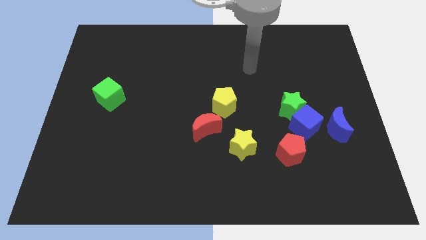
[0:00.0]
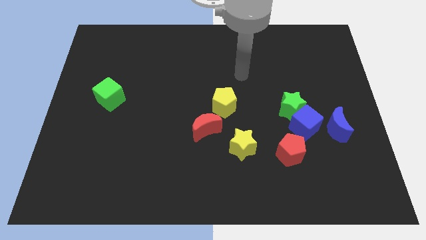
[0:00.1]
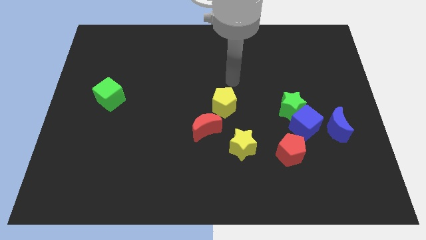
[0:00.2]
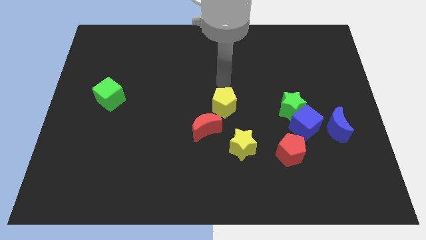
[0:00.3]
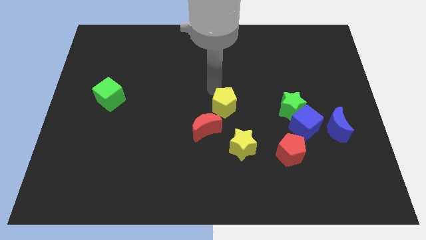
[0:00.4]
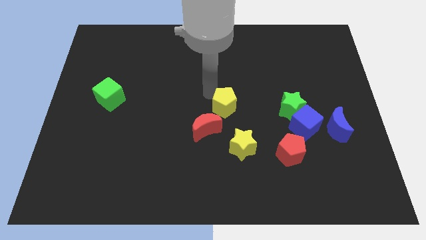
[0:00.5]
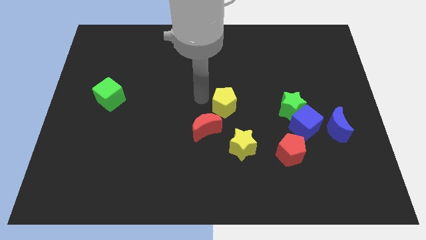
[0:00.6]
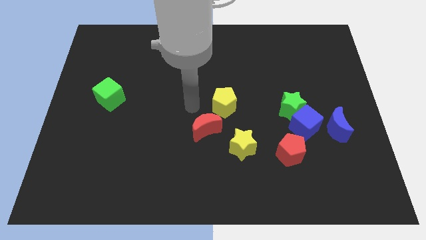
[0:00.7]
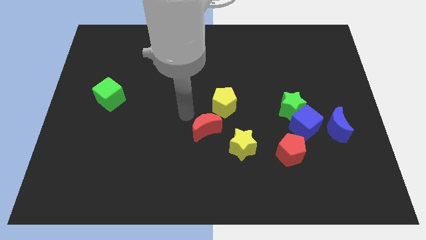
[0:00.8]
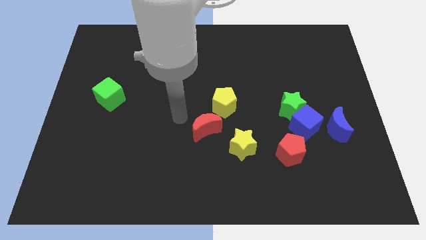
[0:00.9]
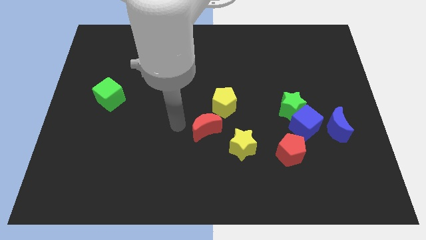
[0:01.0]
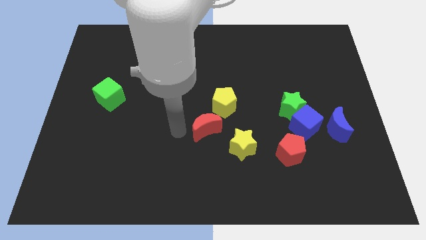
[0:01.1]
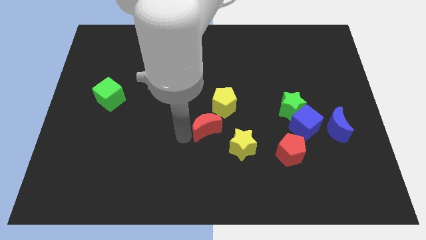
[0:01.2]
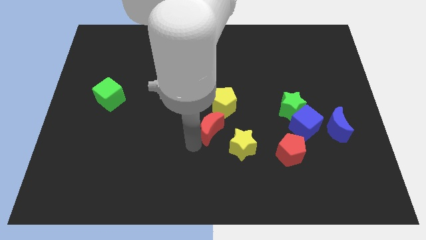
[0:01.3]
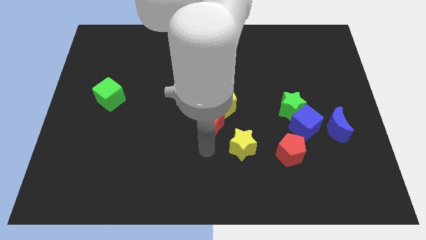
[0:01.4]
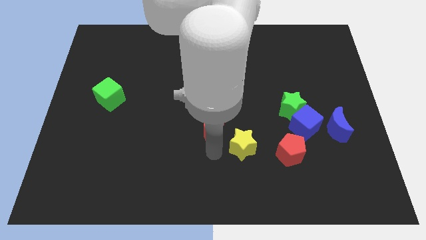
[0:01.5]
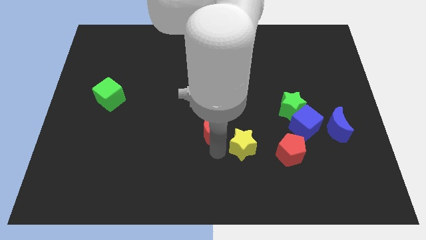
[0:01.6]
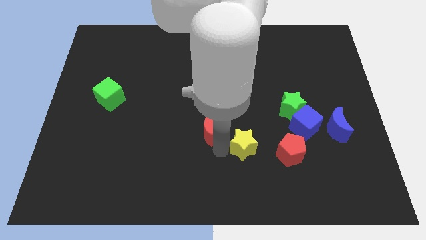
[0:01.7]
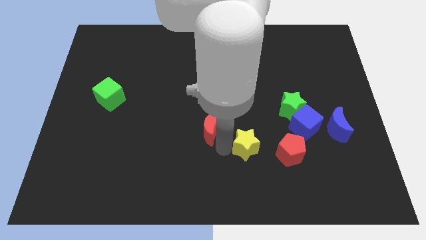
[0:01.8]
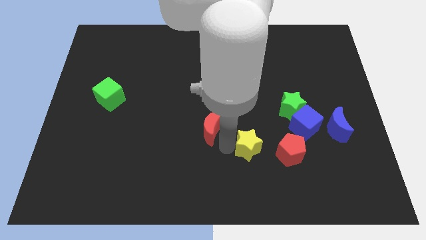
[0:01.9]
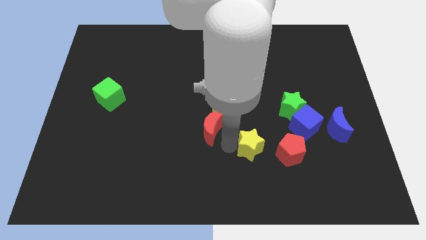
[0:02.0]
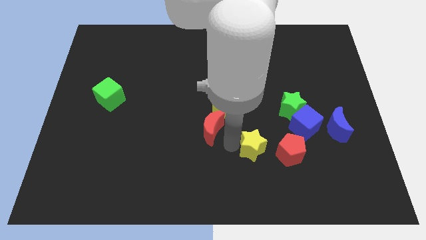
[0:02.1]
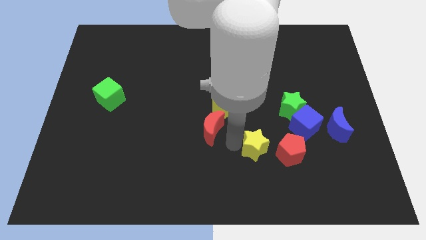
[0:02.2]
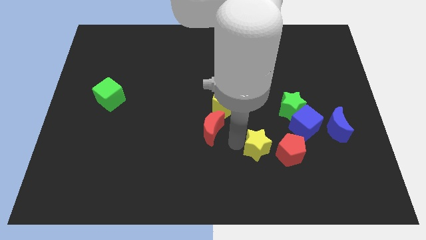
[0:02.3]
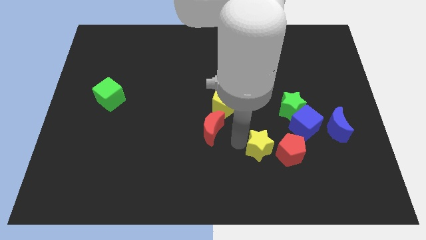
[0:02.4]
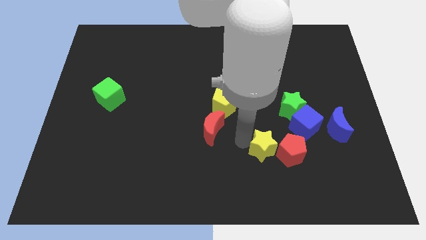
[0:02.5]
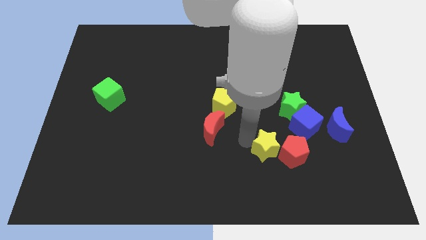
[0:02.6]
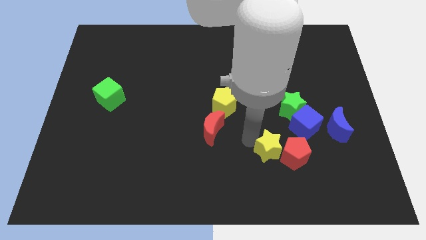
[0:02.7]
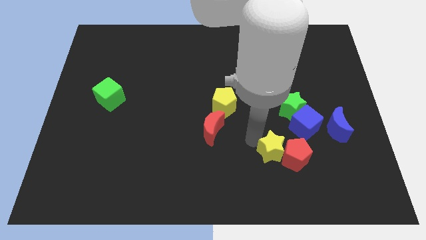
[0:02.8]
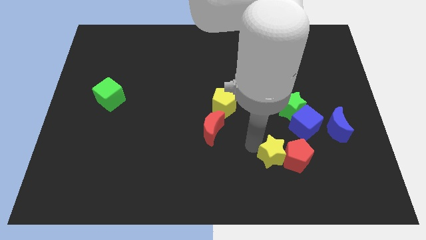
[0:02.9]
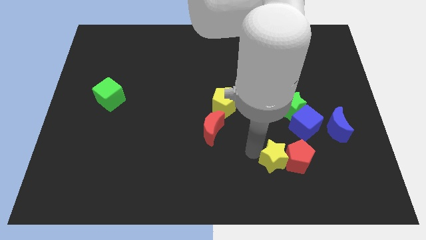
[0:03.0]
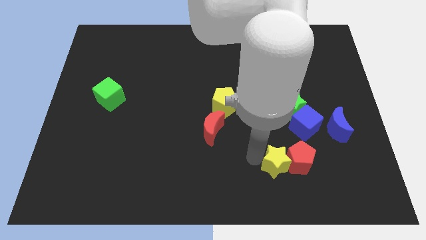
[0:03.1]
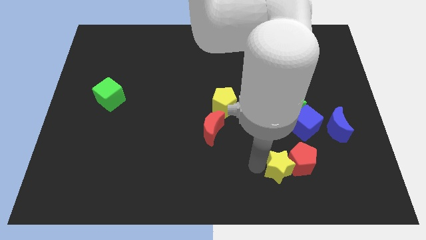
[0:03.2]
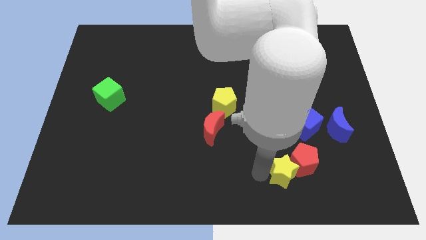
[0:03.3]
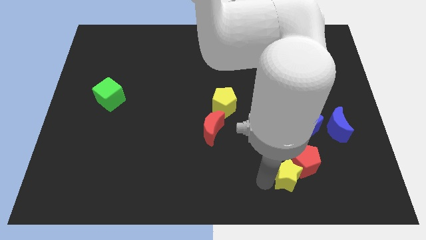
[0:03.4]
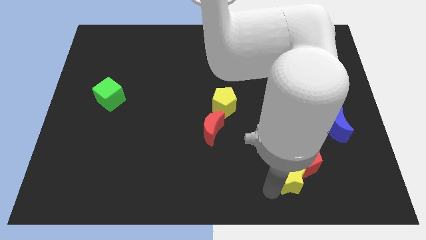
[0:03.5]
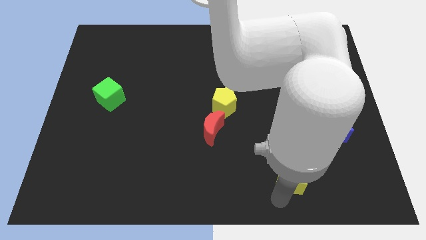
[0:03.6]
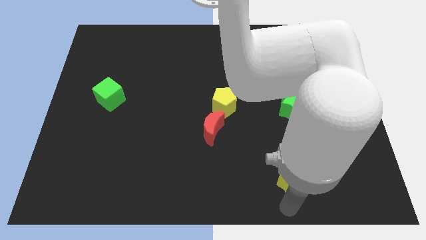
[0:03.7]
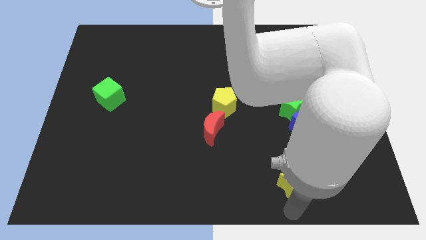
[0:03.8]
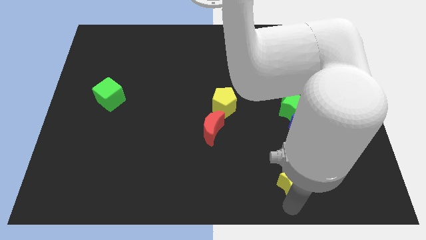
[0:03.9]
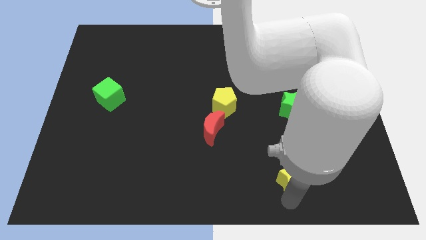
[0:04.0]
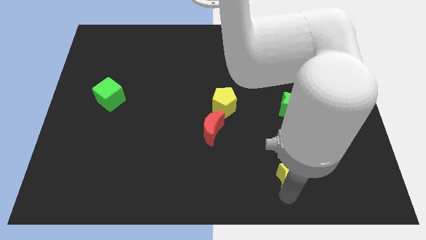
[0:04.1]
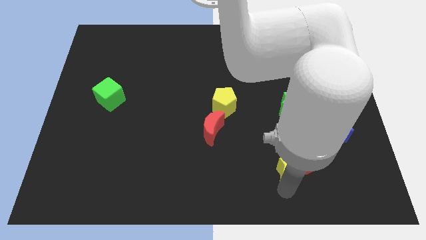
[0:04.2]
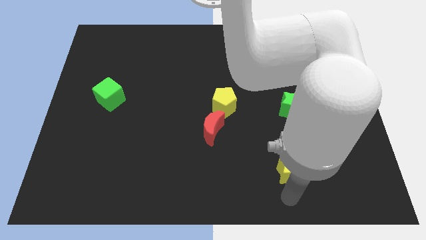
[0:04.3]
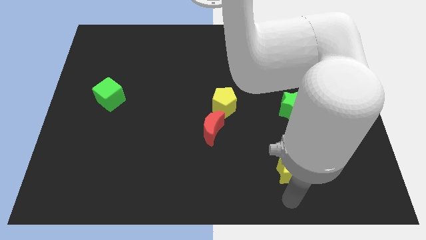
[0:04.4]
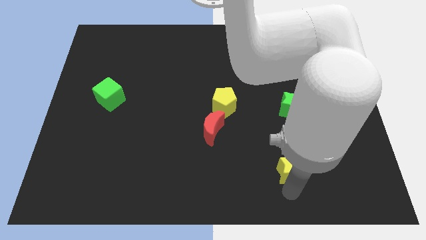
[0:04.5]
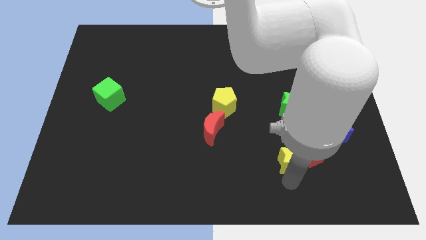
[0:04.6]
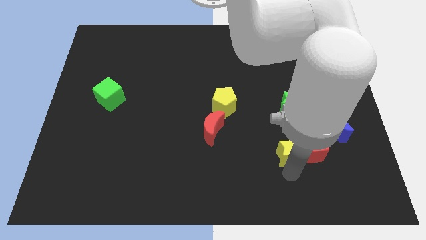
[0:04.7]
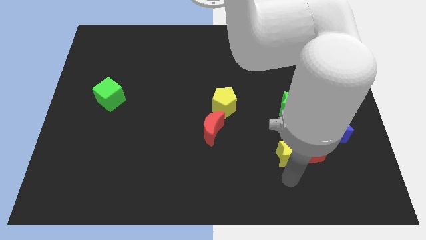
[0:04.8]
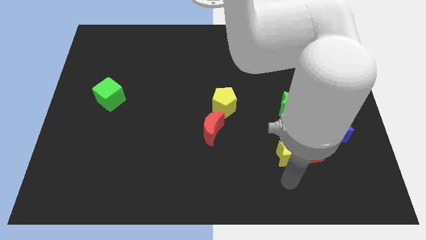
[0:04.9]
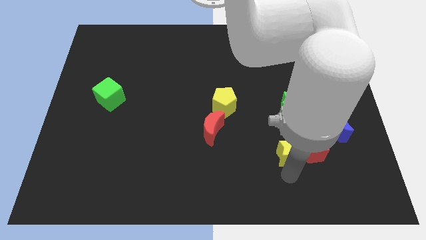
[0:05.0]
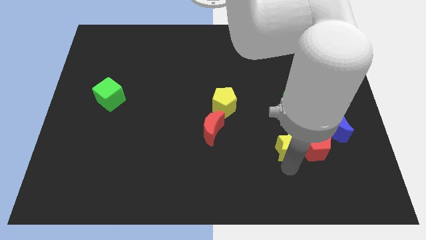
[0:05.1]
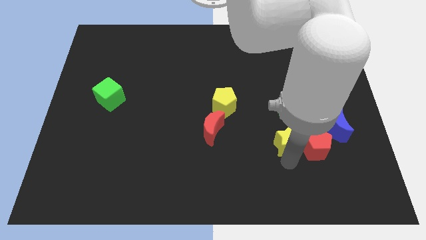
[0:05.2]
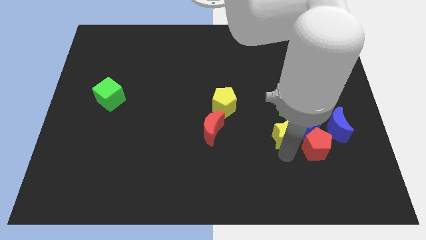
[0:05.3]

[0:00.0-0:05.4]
push the yellow star next to the blue cube

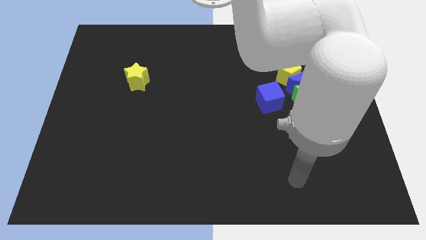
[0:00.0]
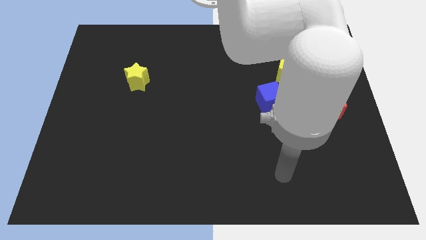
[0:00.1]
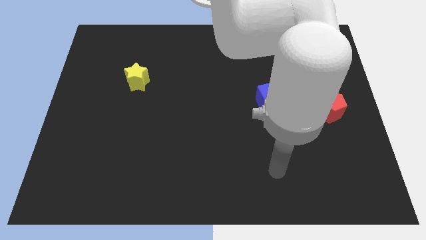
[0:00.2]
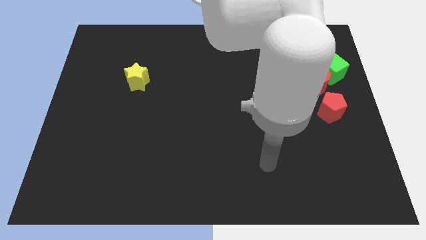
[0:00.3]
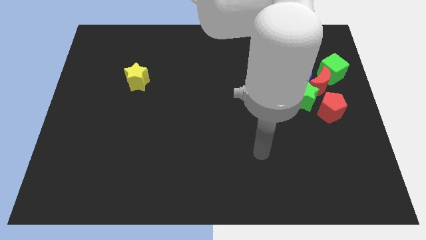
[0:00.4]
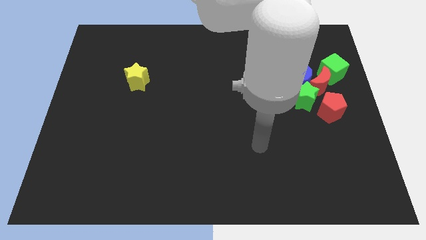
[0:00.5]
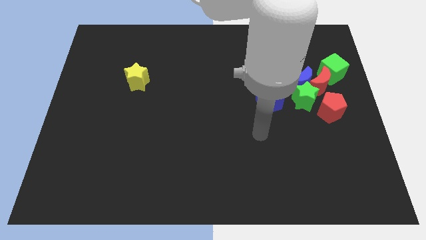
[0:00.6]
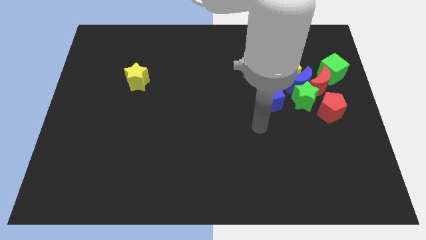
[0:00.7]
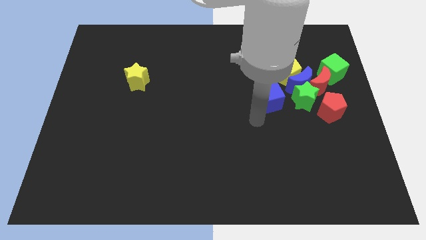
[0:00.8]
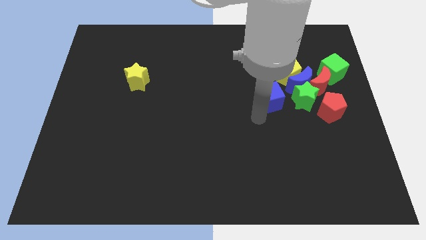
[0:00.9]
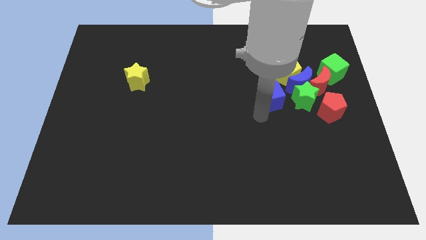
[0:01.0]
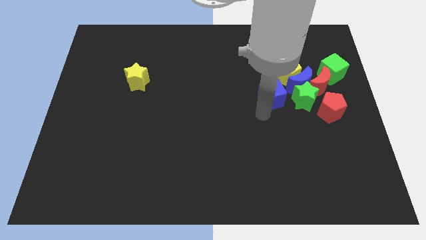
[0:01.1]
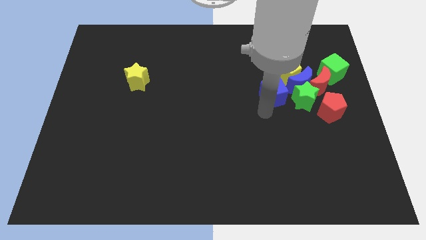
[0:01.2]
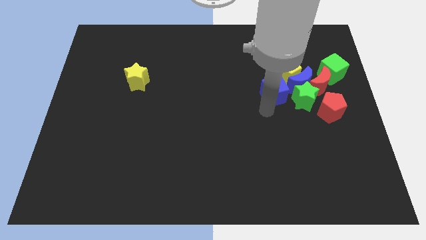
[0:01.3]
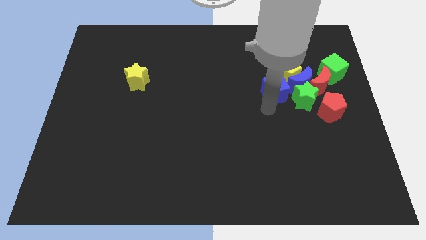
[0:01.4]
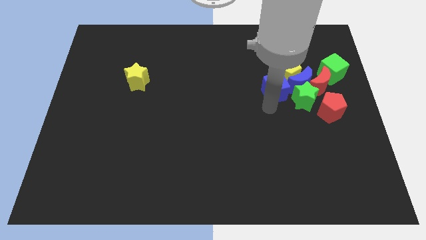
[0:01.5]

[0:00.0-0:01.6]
put the blue cube close to the yellow pentagon

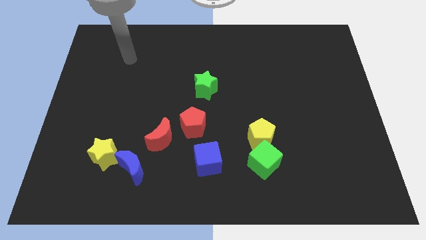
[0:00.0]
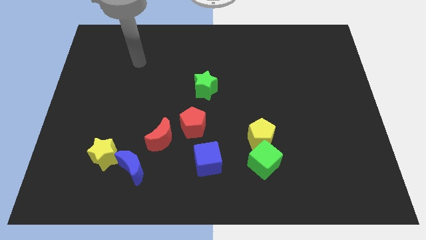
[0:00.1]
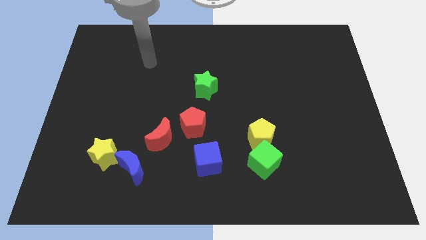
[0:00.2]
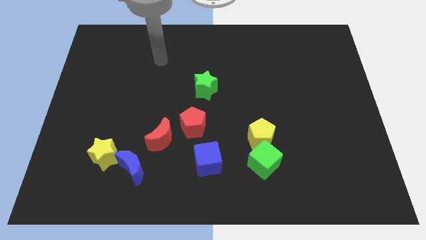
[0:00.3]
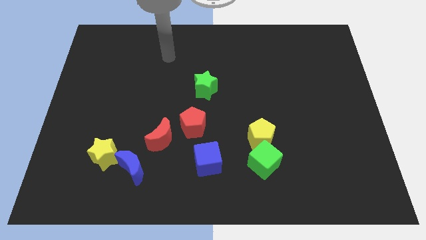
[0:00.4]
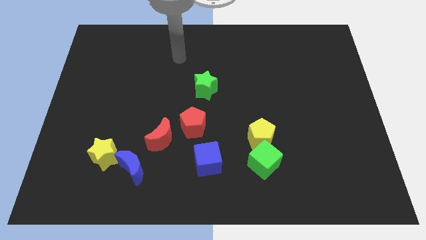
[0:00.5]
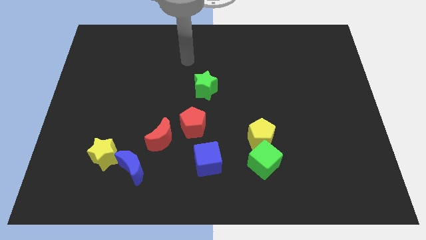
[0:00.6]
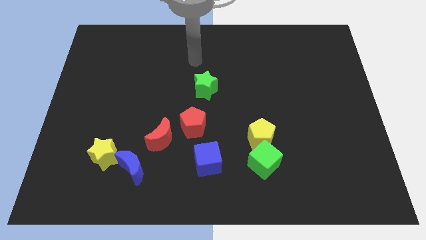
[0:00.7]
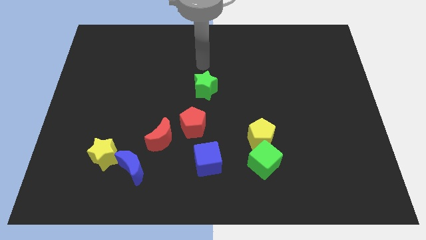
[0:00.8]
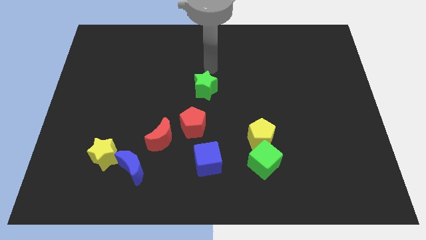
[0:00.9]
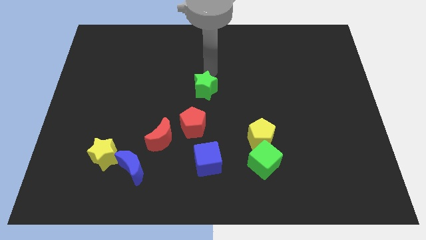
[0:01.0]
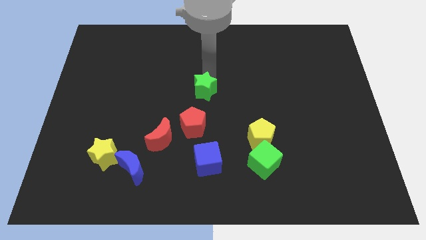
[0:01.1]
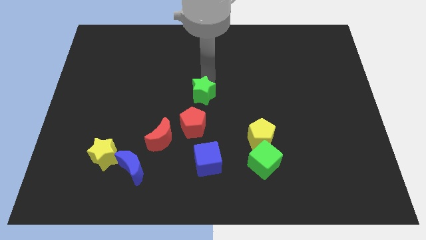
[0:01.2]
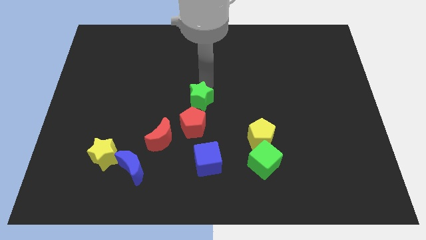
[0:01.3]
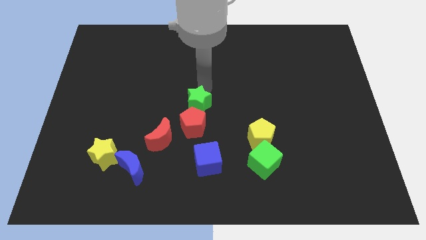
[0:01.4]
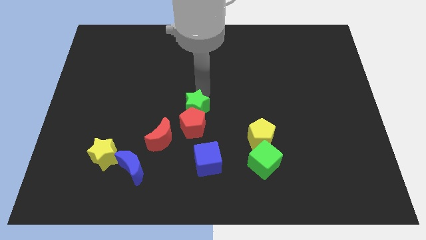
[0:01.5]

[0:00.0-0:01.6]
put the green star next to the red pentagon
